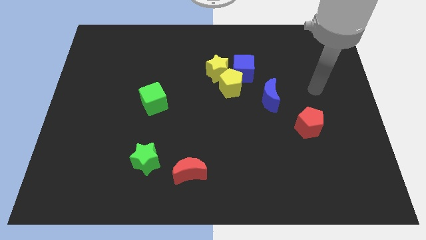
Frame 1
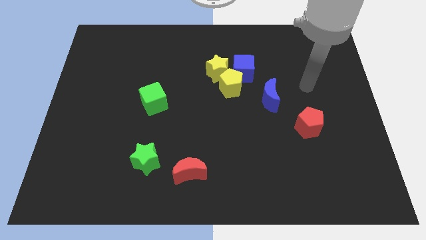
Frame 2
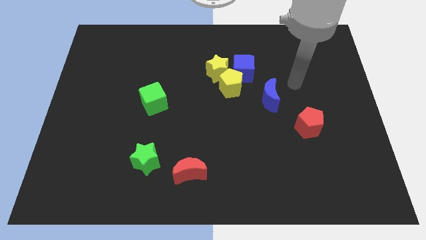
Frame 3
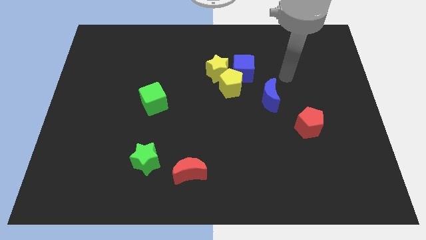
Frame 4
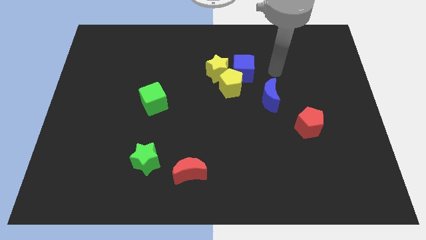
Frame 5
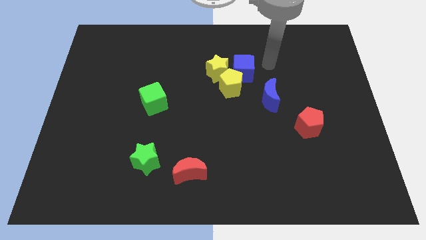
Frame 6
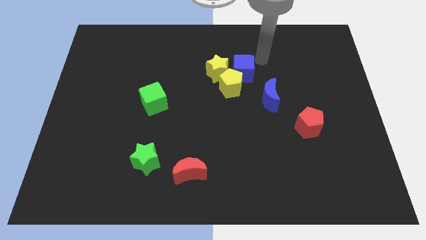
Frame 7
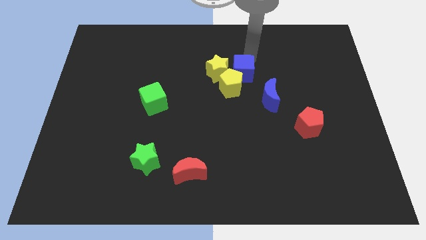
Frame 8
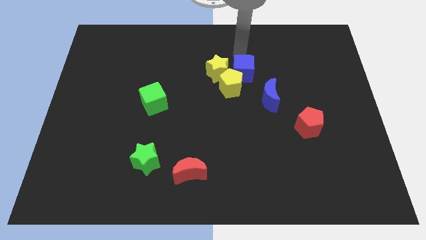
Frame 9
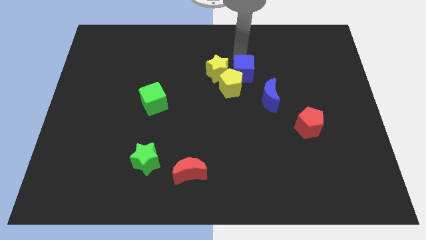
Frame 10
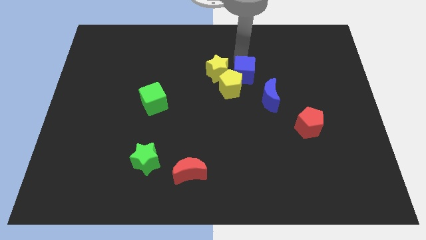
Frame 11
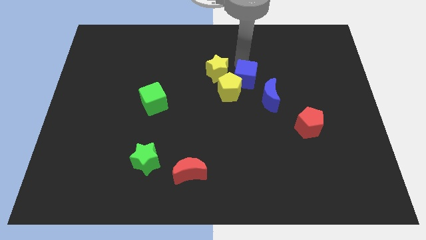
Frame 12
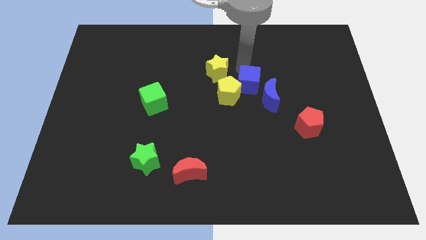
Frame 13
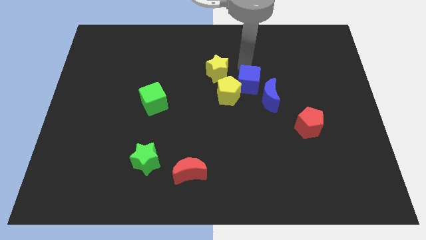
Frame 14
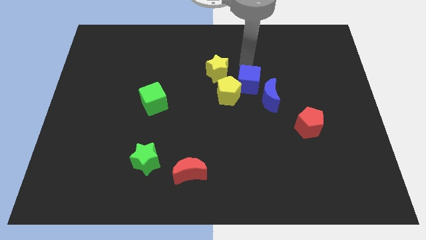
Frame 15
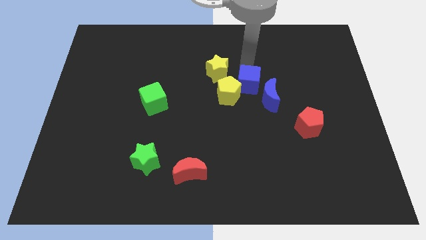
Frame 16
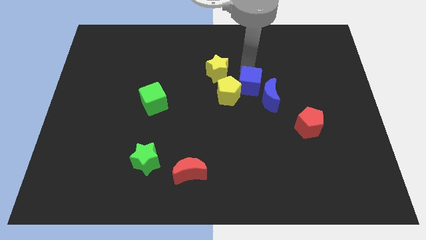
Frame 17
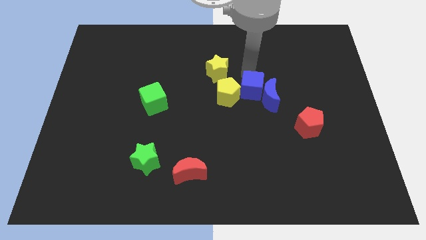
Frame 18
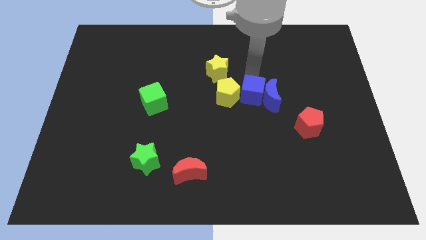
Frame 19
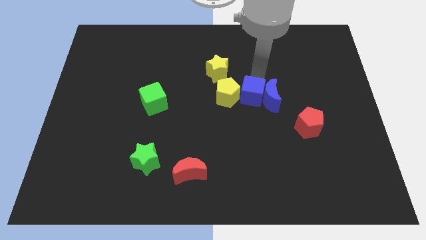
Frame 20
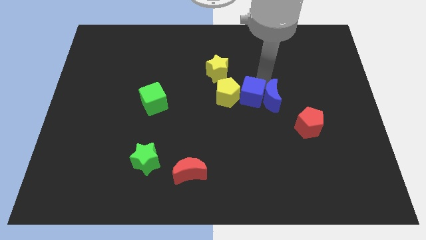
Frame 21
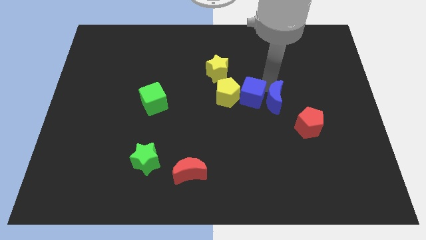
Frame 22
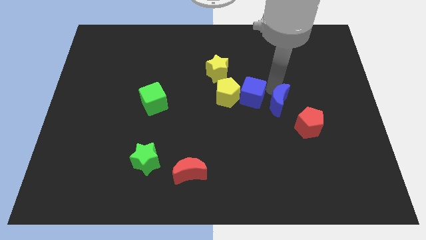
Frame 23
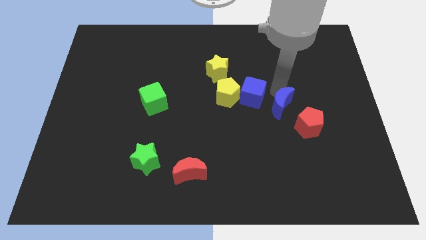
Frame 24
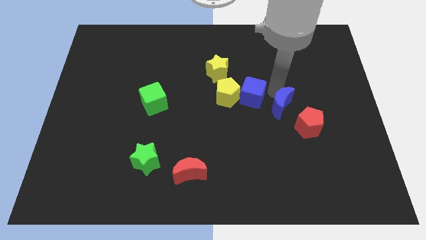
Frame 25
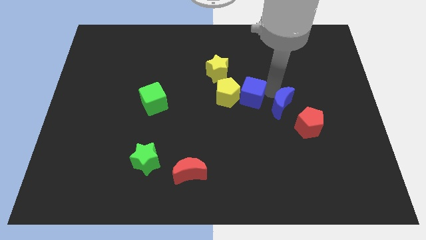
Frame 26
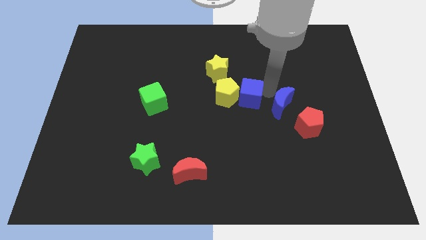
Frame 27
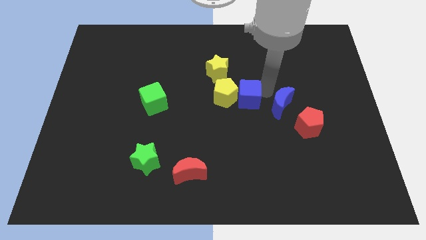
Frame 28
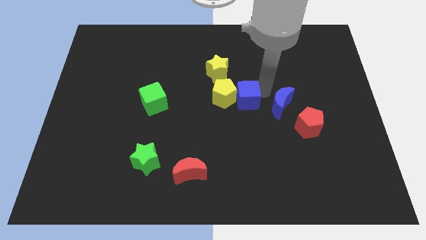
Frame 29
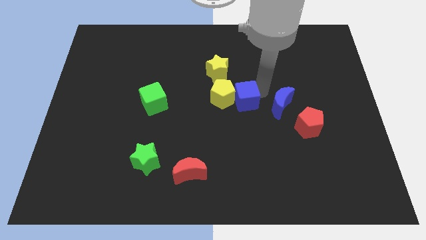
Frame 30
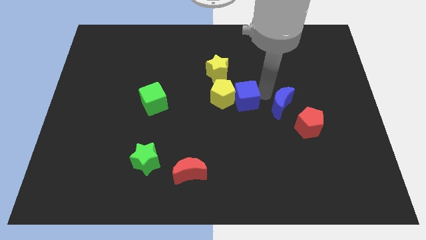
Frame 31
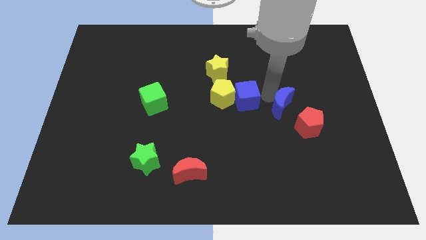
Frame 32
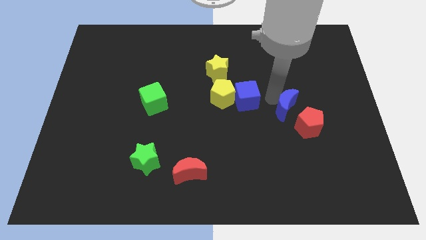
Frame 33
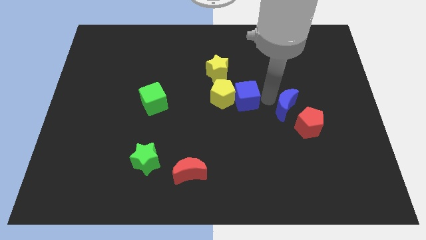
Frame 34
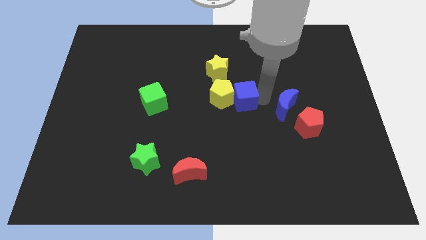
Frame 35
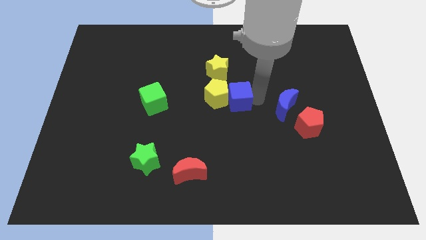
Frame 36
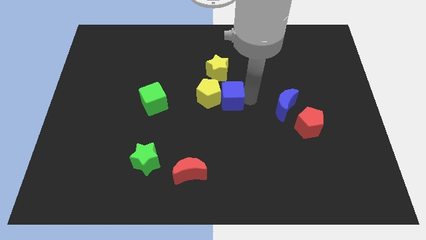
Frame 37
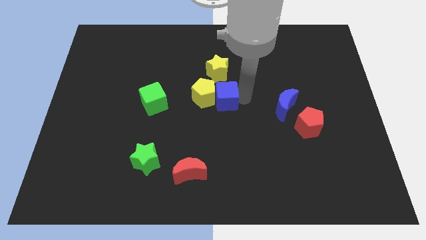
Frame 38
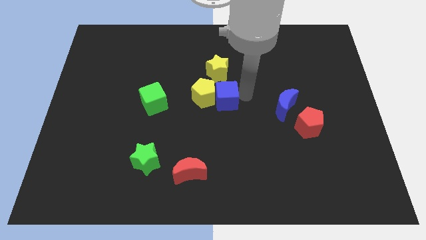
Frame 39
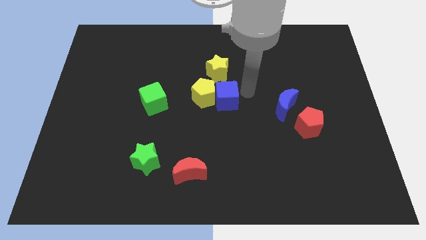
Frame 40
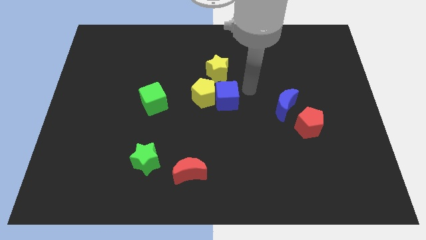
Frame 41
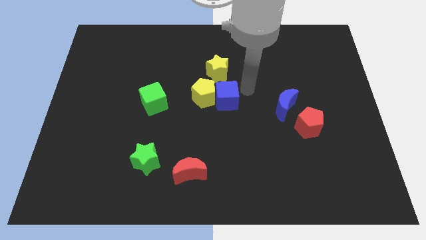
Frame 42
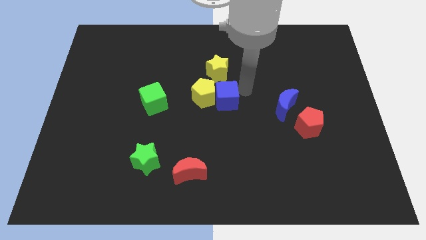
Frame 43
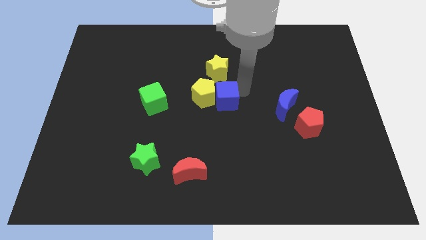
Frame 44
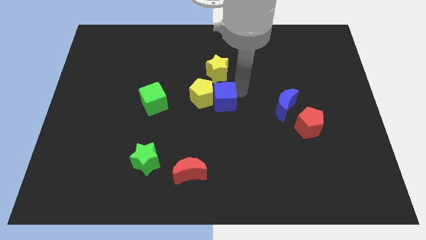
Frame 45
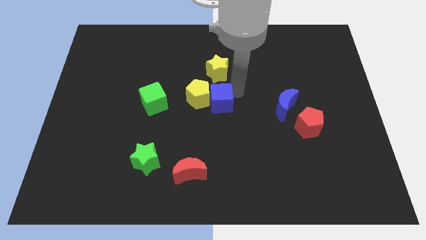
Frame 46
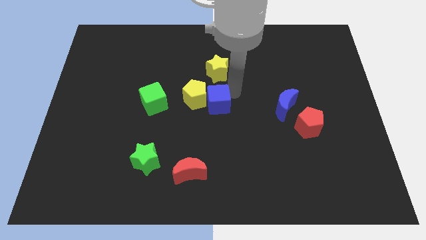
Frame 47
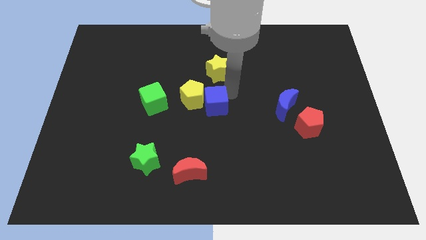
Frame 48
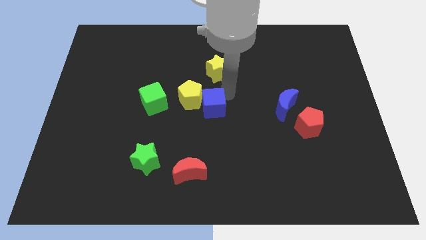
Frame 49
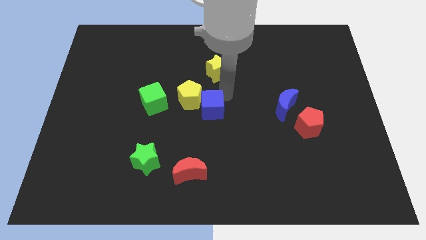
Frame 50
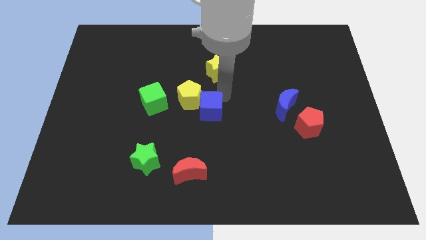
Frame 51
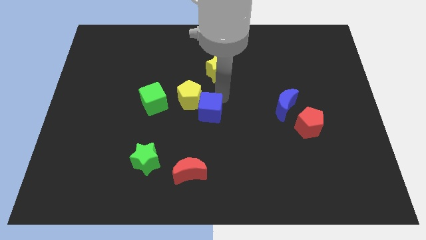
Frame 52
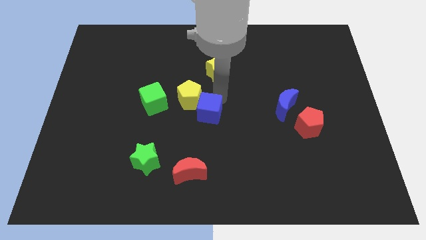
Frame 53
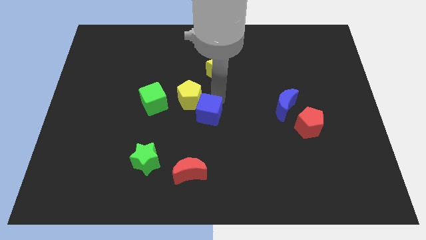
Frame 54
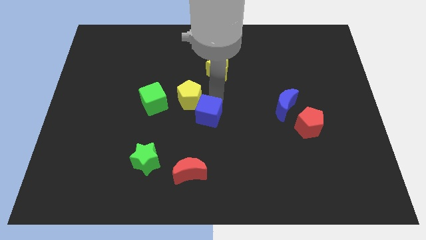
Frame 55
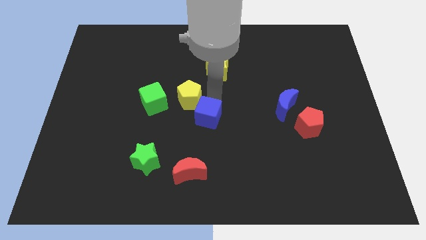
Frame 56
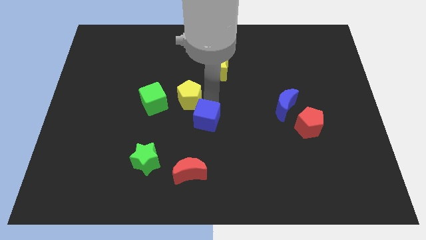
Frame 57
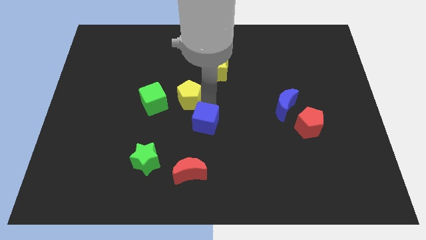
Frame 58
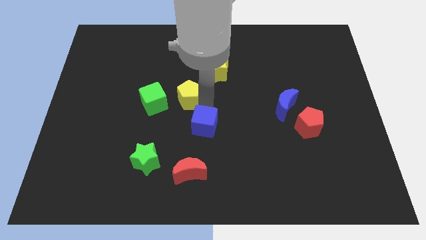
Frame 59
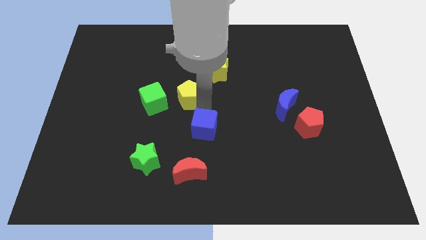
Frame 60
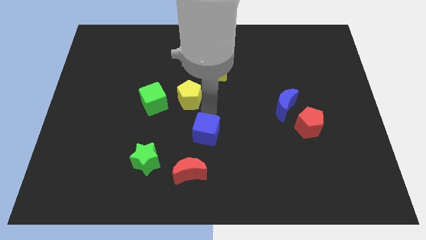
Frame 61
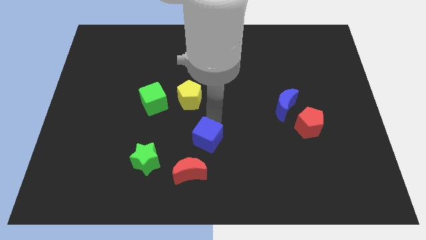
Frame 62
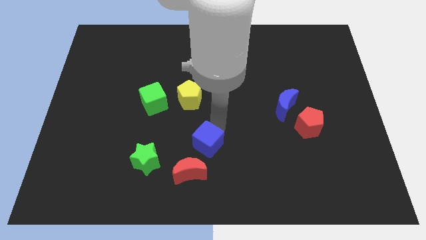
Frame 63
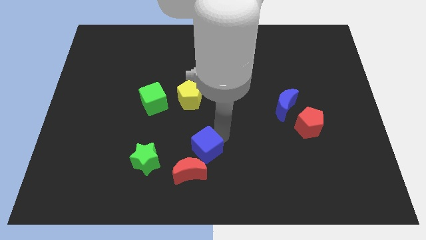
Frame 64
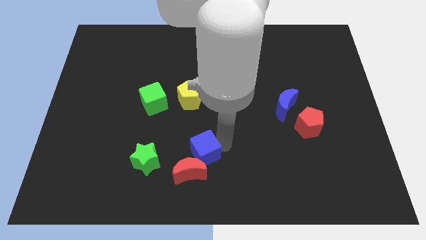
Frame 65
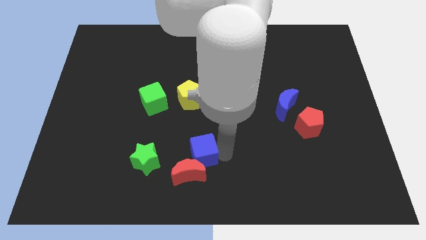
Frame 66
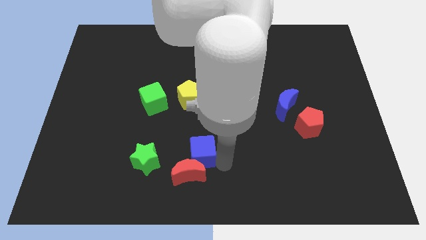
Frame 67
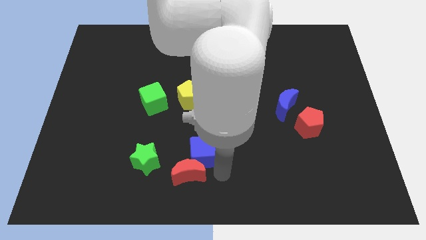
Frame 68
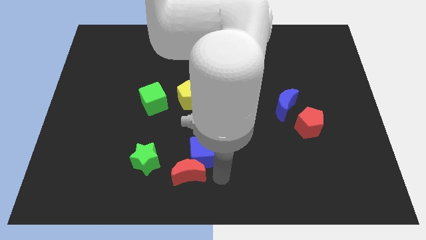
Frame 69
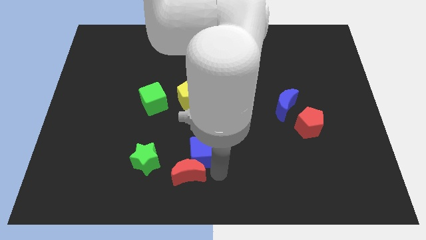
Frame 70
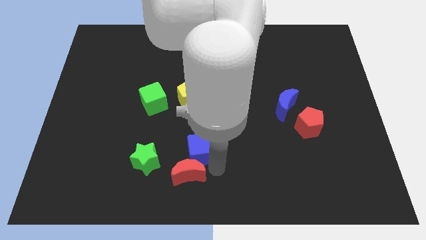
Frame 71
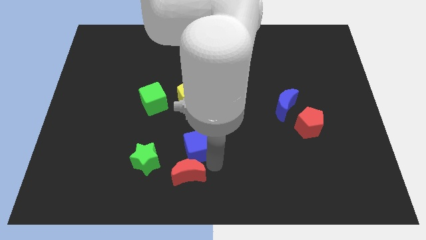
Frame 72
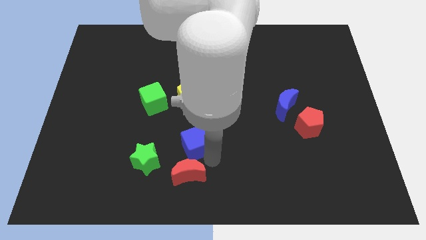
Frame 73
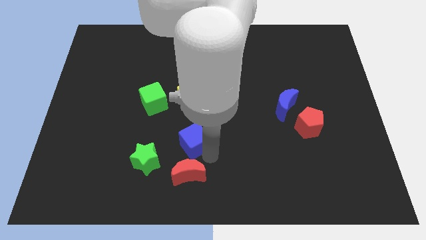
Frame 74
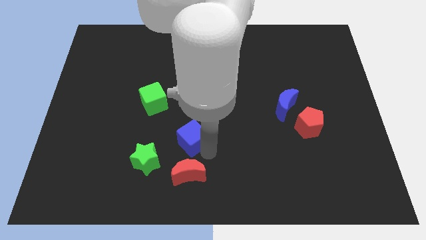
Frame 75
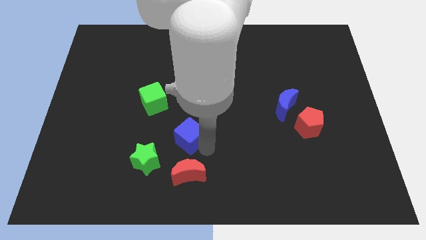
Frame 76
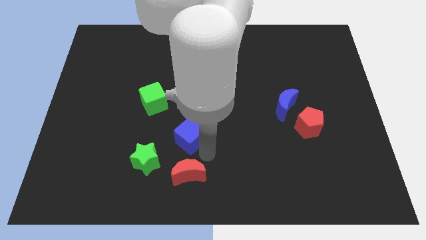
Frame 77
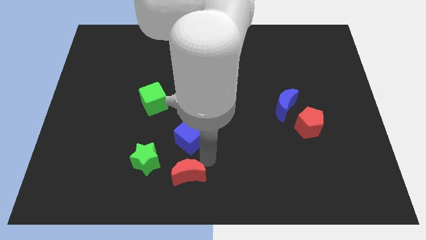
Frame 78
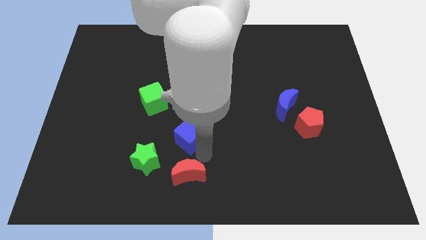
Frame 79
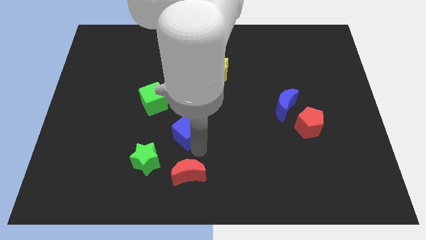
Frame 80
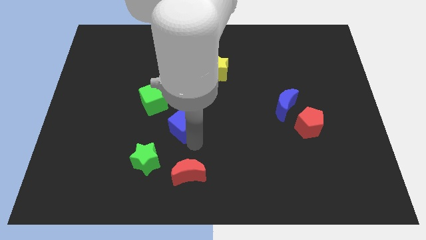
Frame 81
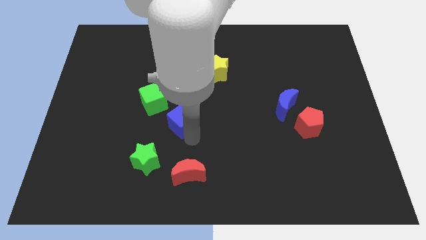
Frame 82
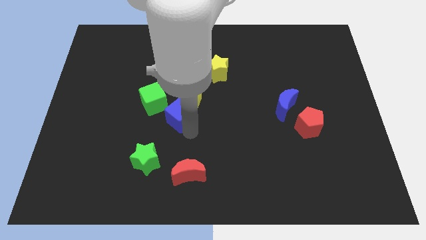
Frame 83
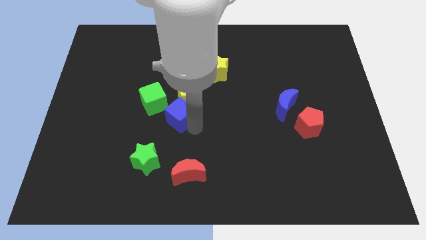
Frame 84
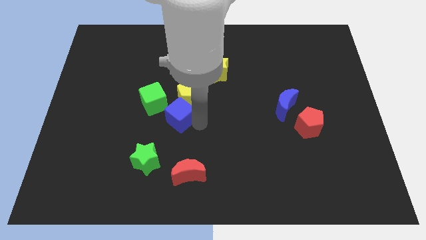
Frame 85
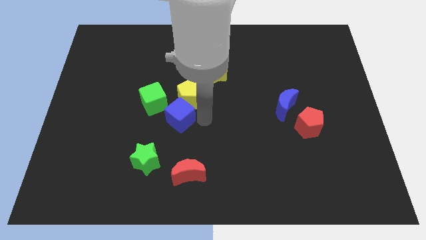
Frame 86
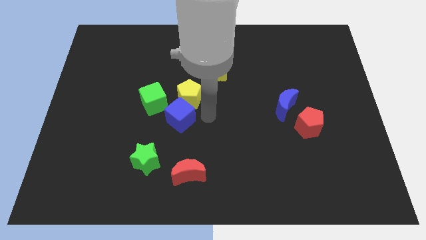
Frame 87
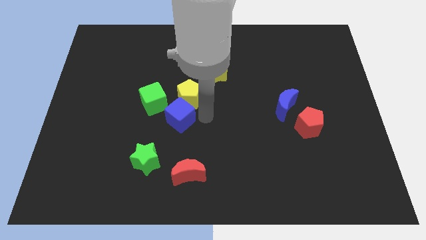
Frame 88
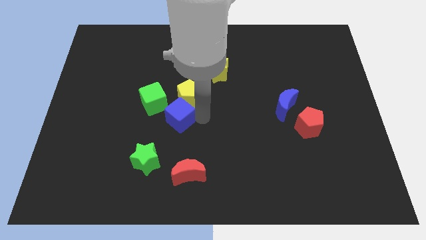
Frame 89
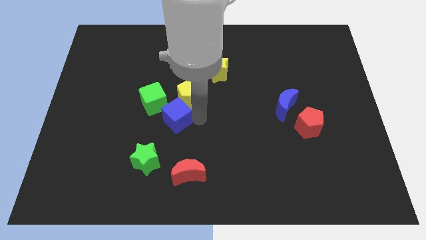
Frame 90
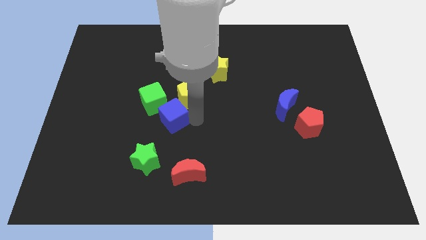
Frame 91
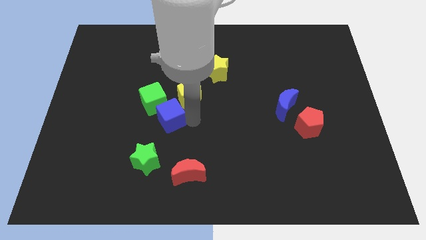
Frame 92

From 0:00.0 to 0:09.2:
push the blue cube to the top side of the green star
